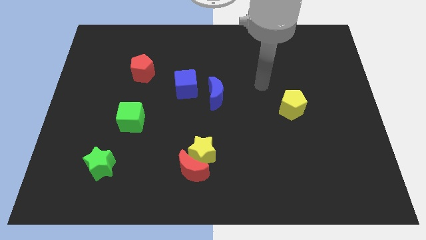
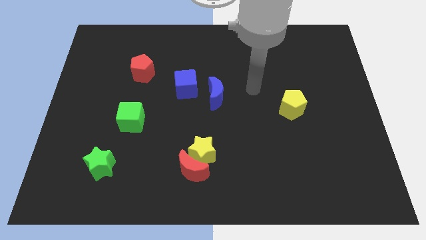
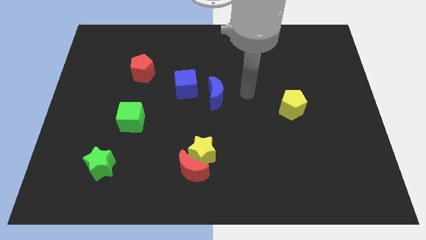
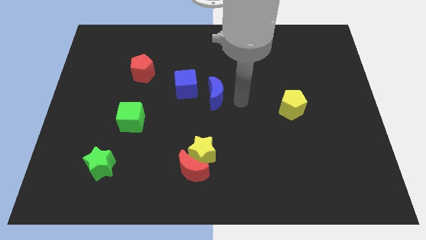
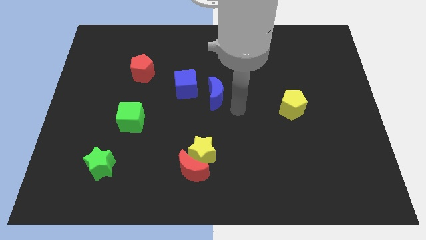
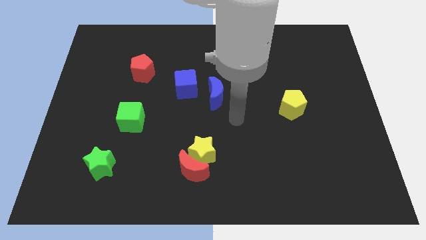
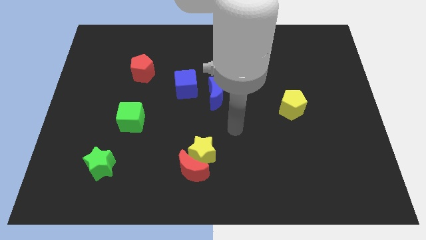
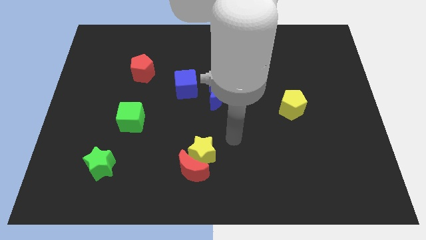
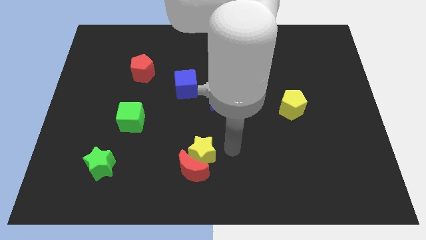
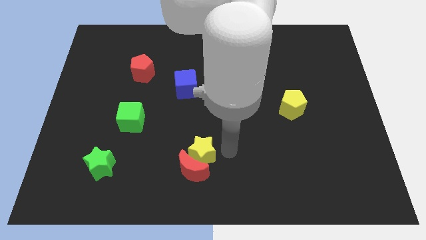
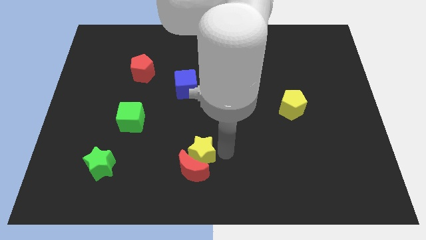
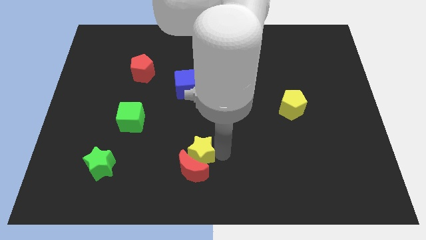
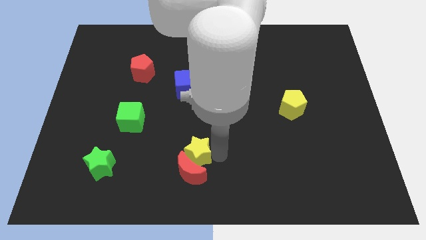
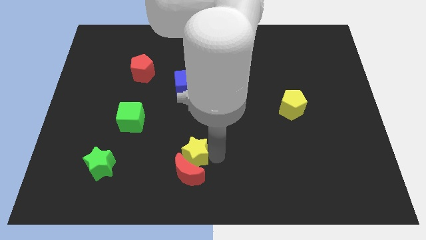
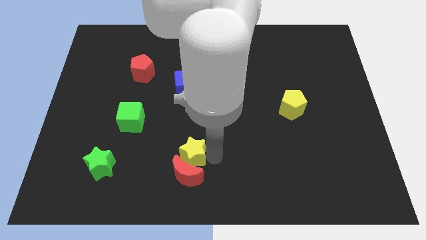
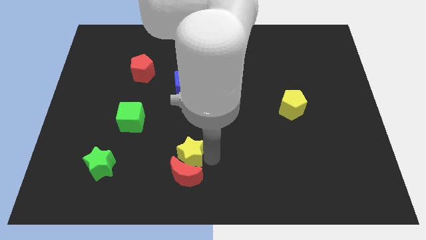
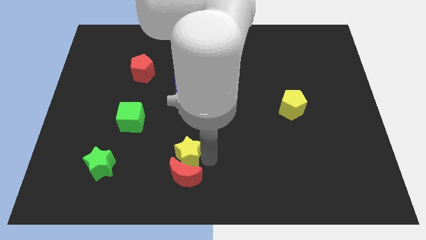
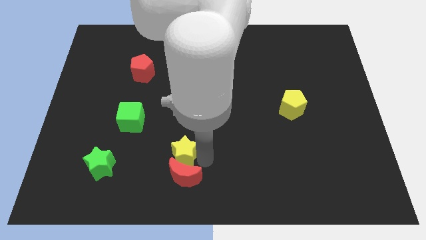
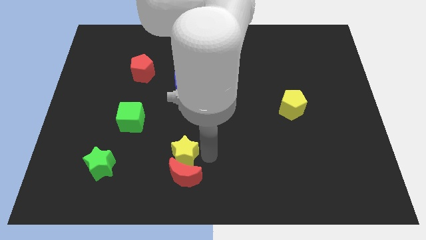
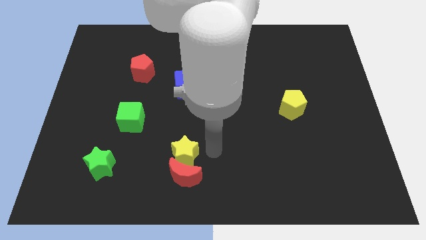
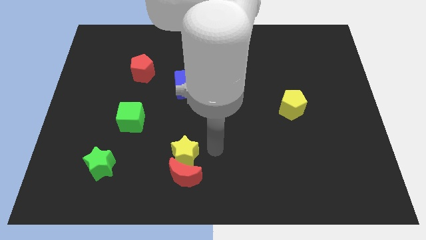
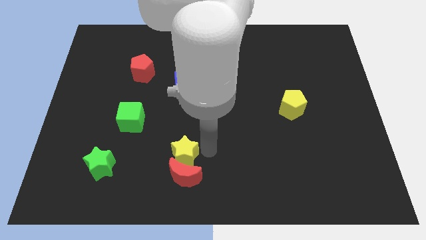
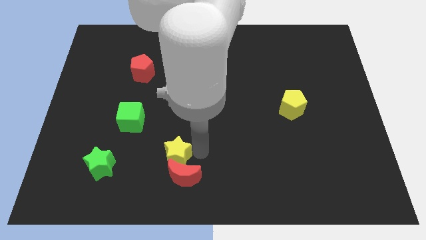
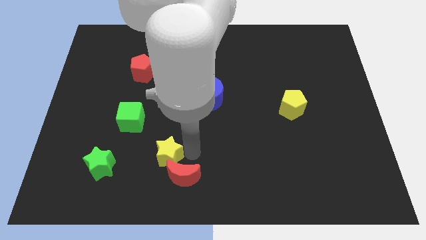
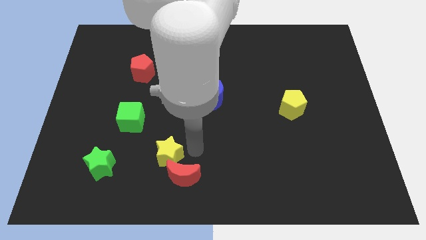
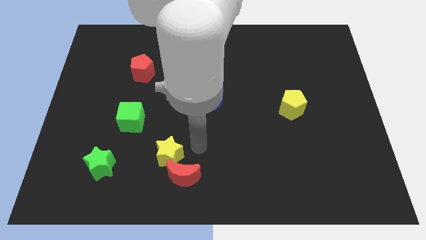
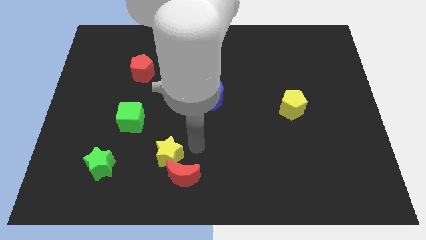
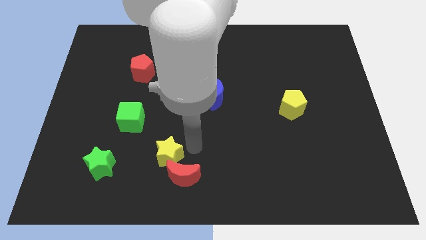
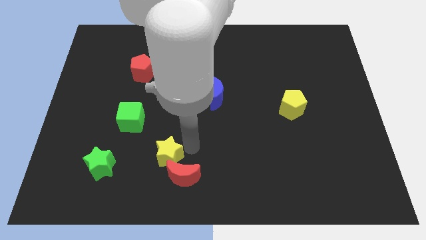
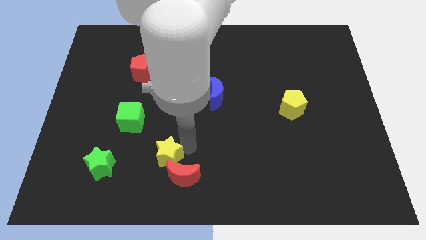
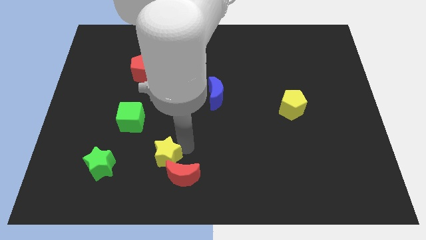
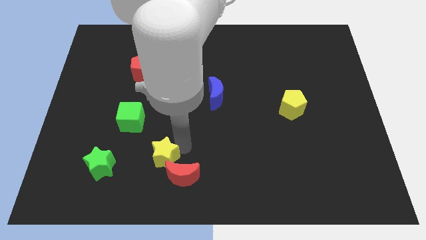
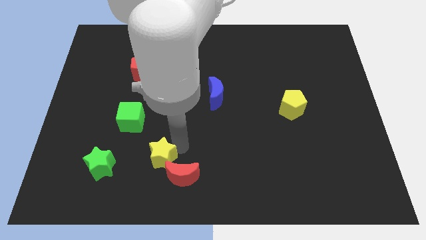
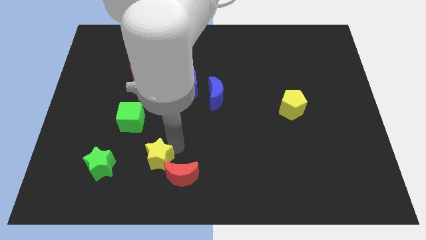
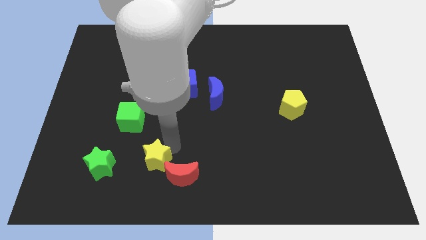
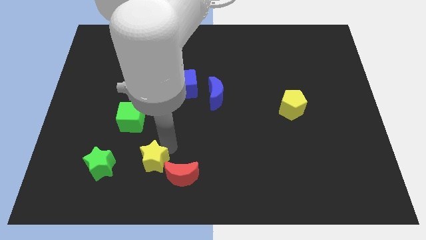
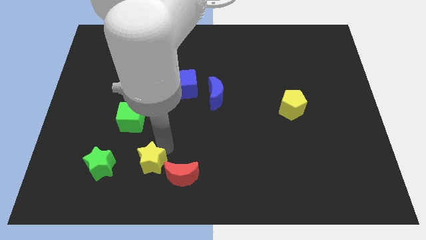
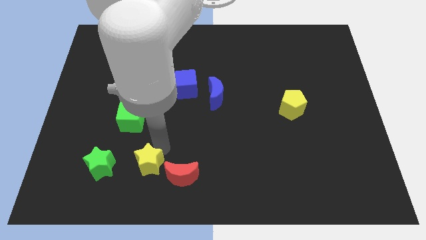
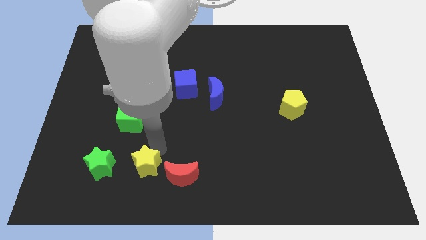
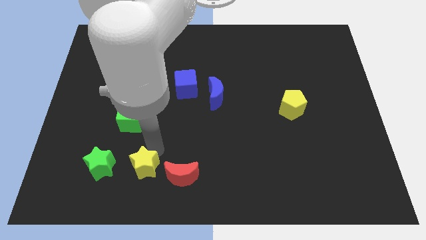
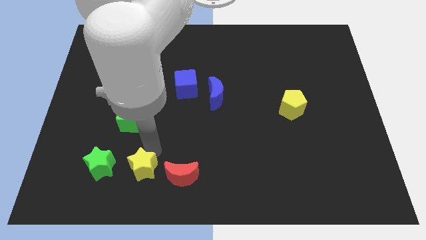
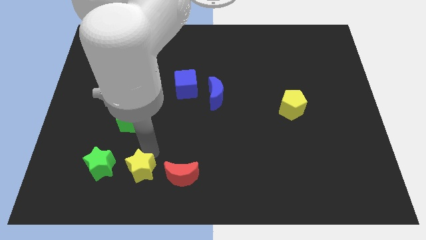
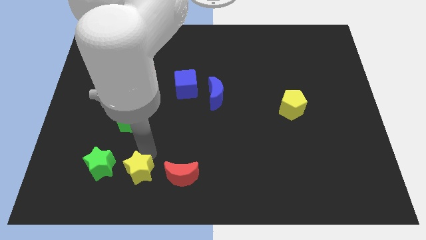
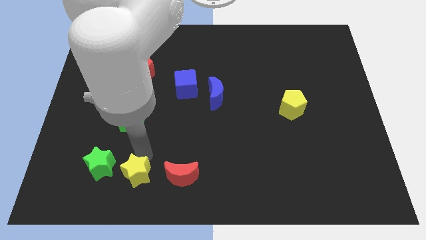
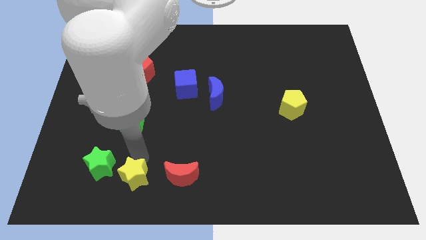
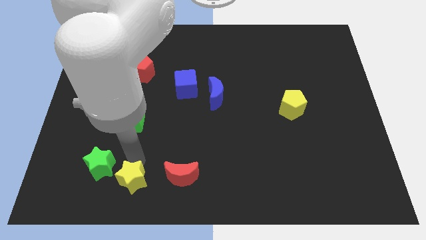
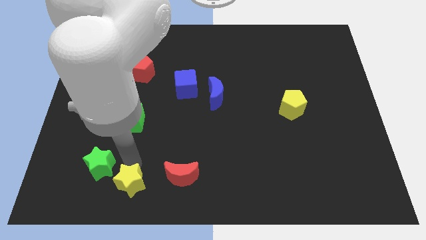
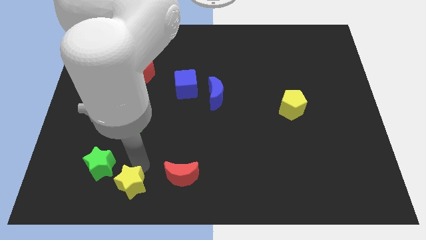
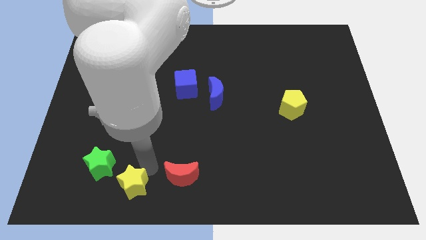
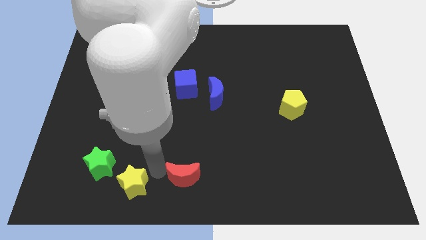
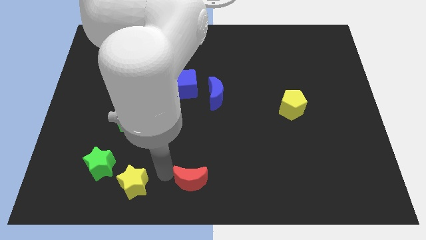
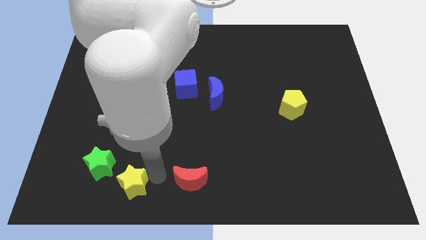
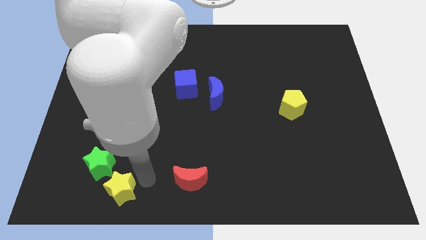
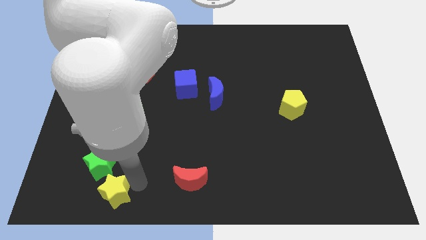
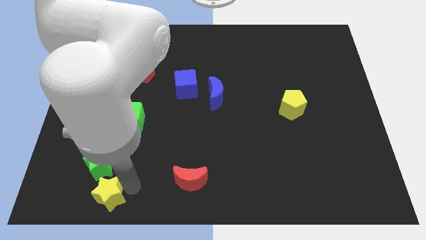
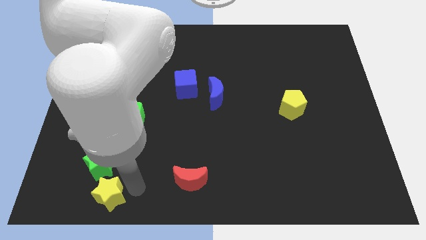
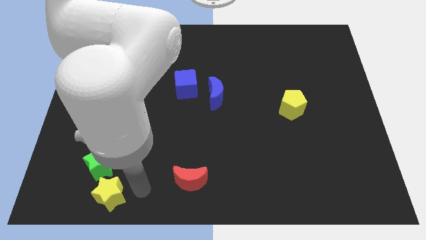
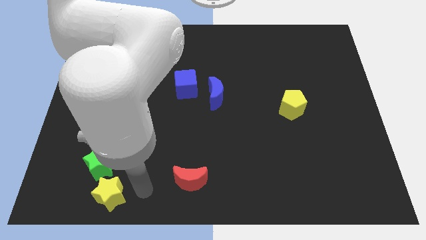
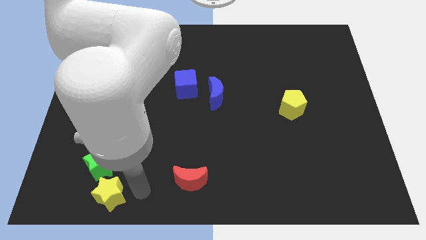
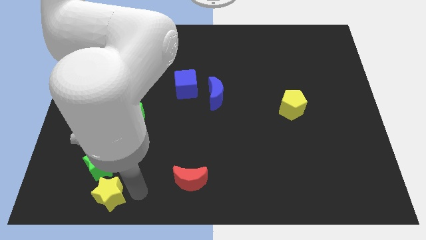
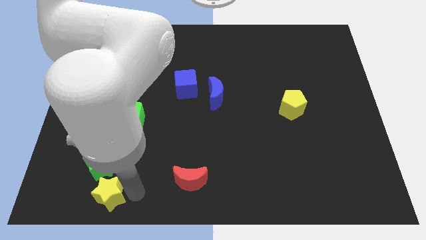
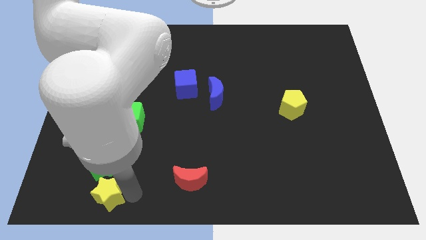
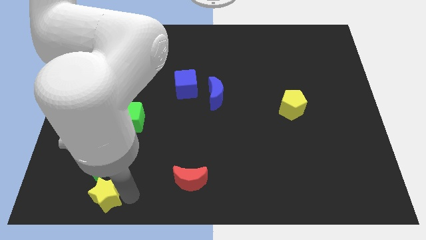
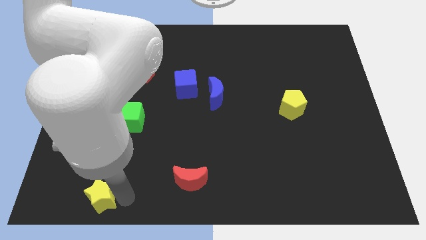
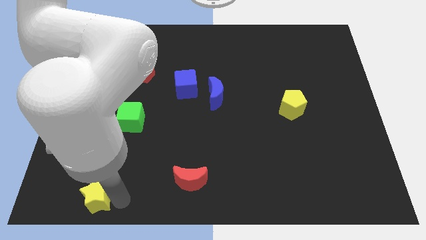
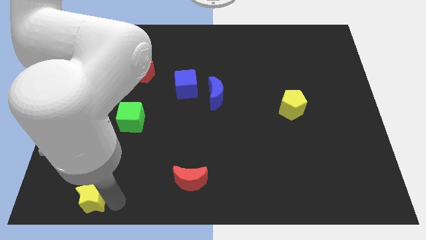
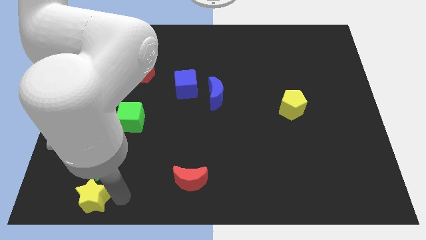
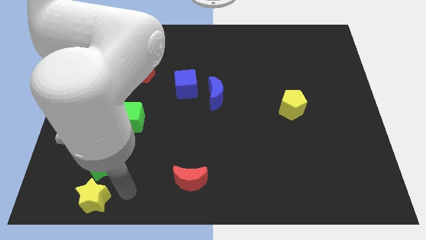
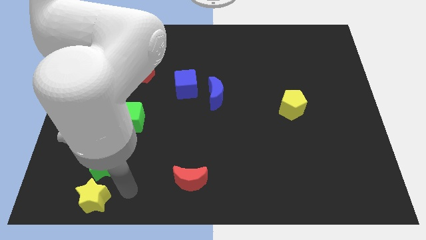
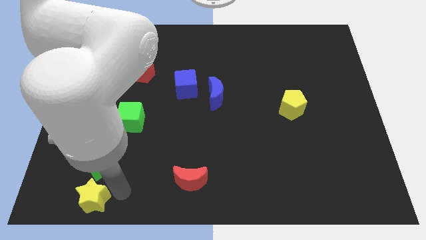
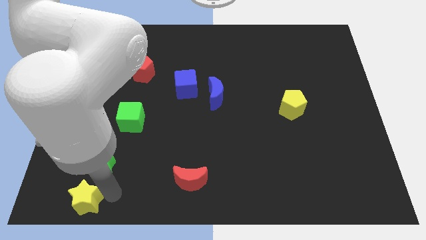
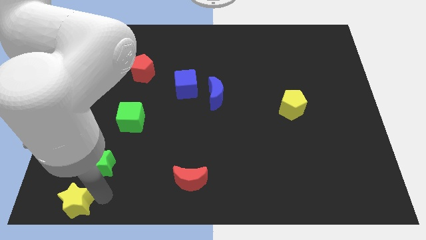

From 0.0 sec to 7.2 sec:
put the yellow star to the bottom left of the board
